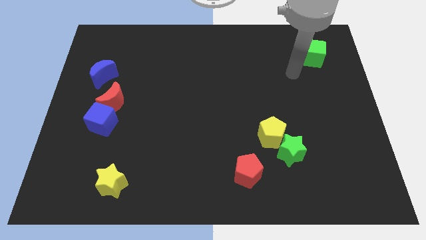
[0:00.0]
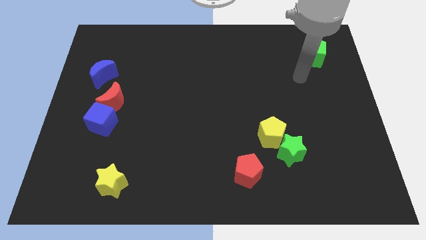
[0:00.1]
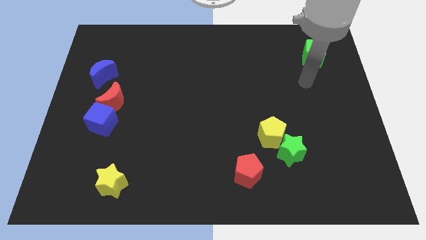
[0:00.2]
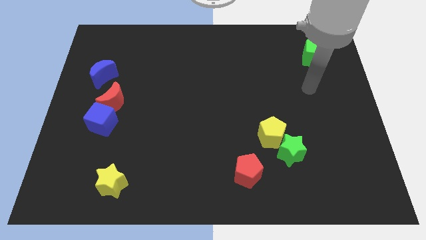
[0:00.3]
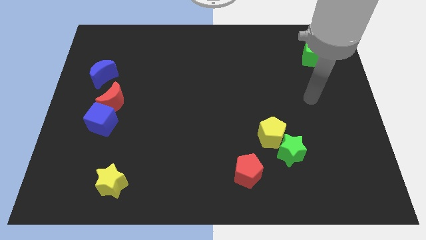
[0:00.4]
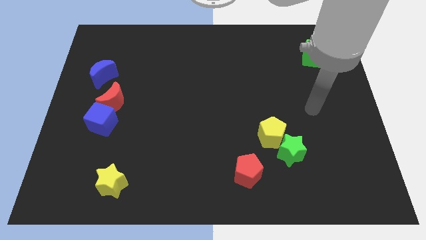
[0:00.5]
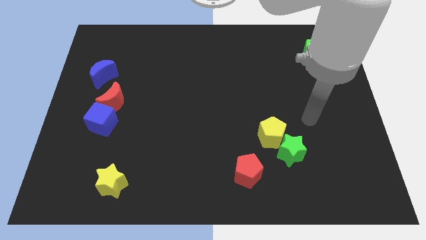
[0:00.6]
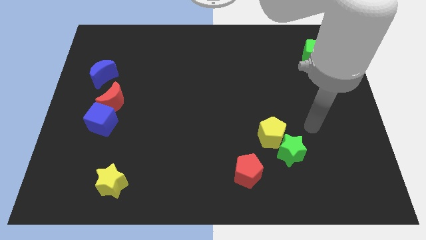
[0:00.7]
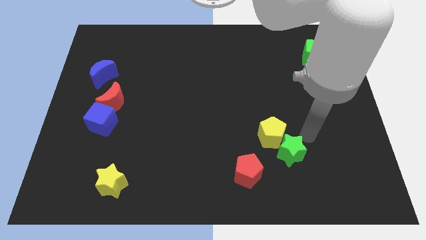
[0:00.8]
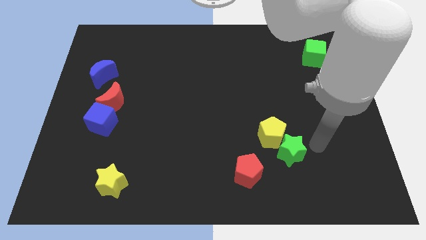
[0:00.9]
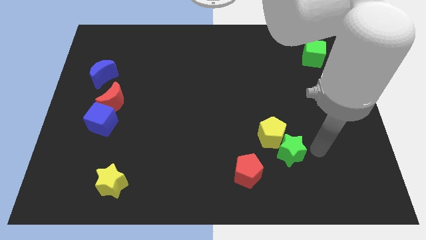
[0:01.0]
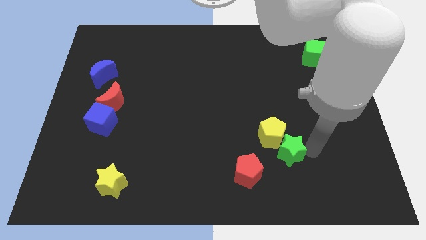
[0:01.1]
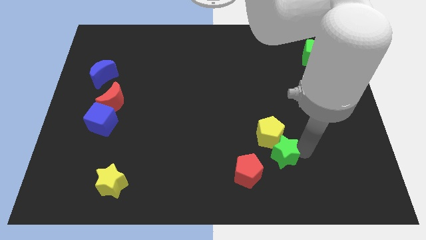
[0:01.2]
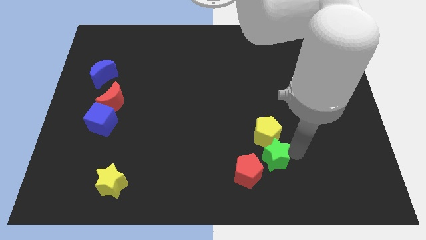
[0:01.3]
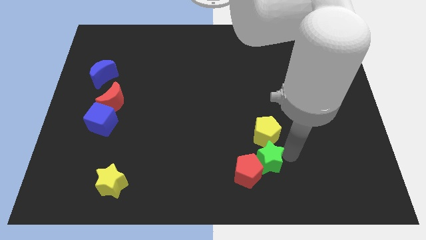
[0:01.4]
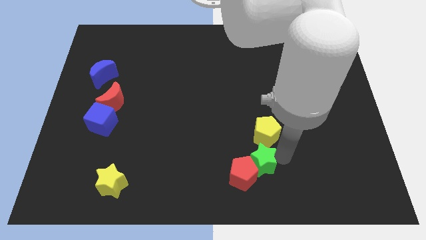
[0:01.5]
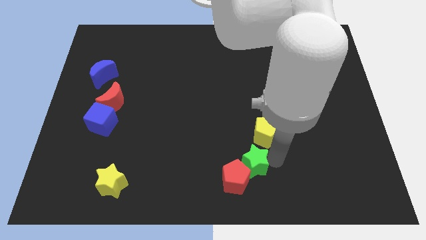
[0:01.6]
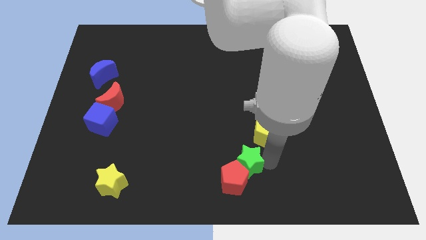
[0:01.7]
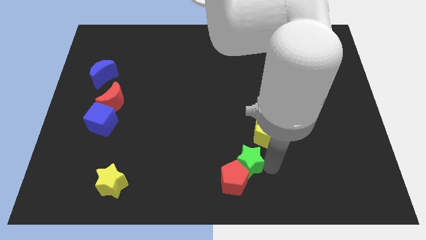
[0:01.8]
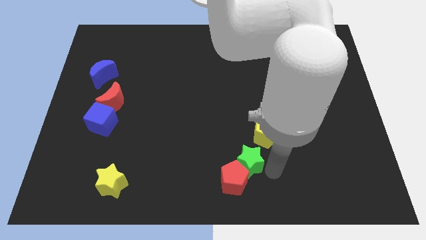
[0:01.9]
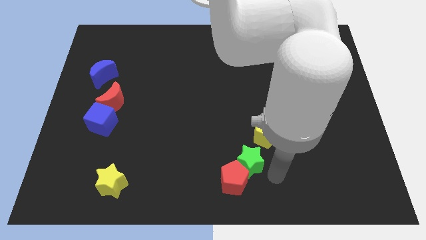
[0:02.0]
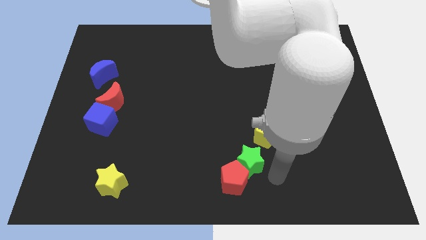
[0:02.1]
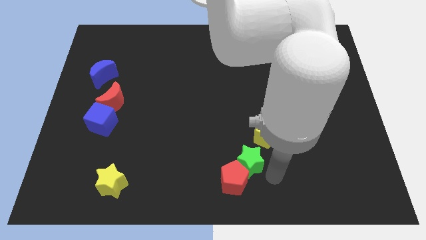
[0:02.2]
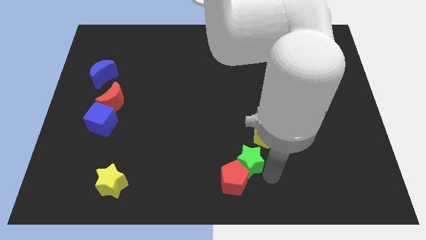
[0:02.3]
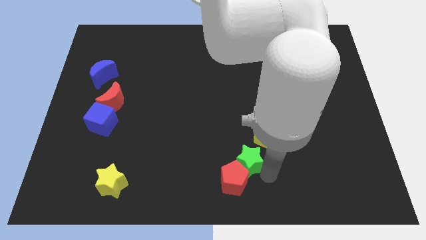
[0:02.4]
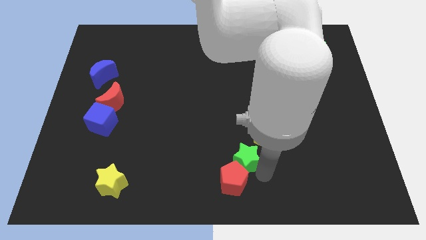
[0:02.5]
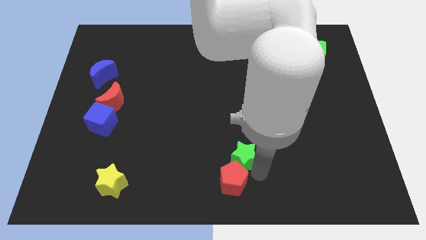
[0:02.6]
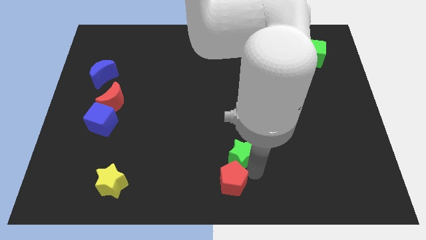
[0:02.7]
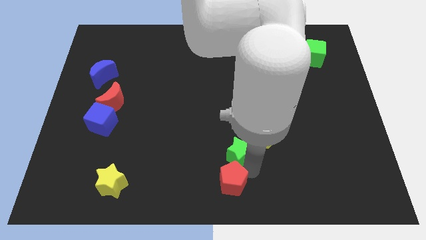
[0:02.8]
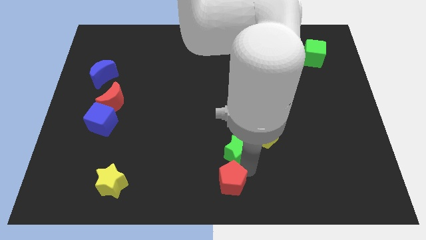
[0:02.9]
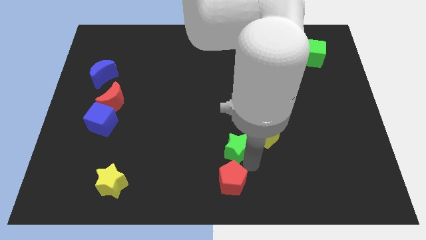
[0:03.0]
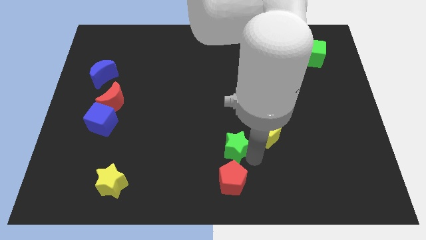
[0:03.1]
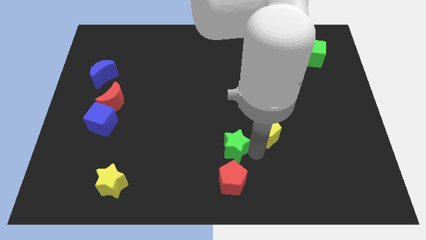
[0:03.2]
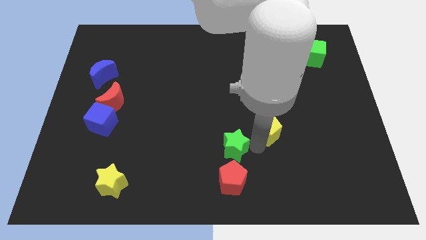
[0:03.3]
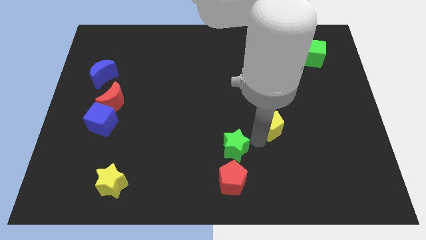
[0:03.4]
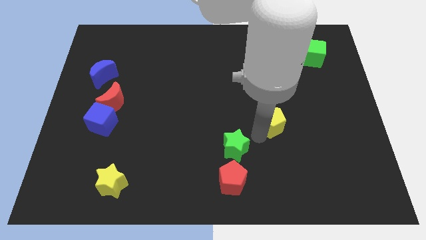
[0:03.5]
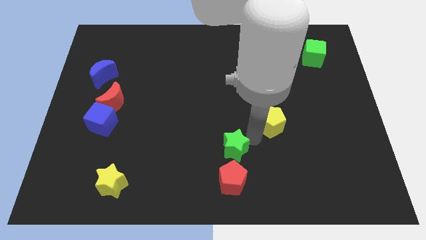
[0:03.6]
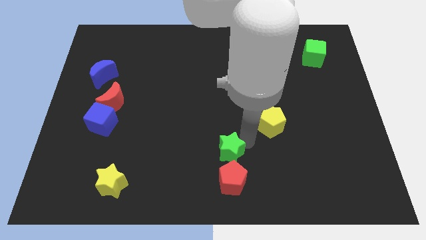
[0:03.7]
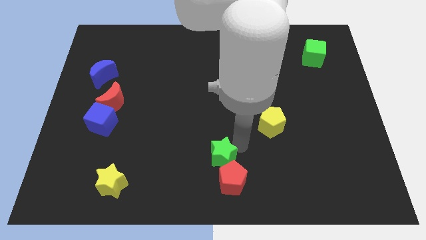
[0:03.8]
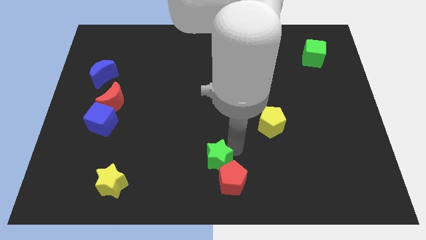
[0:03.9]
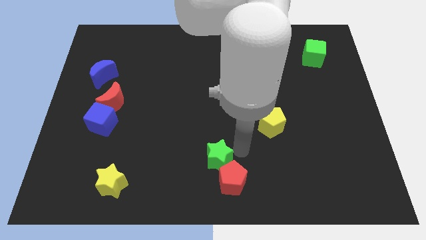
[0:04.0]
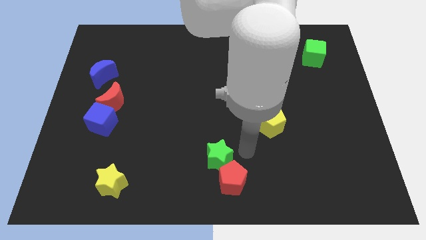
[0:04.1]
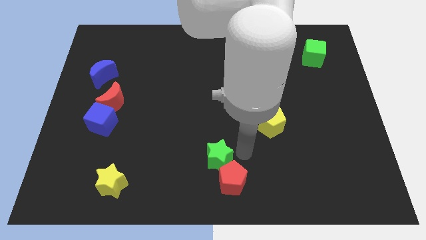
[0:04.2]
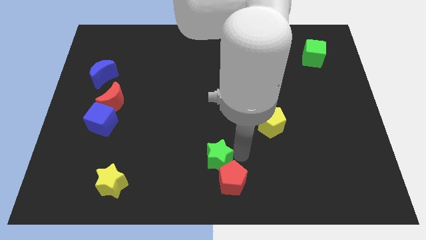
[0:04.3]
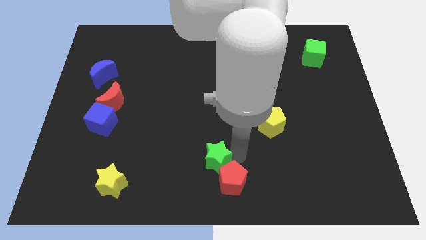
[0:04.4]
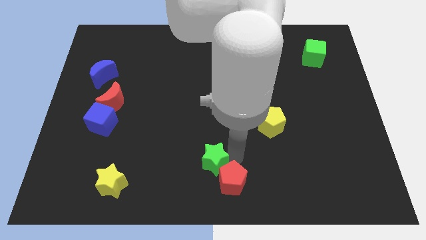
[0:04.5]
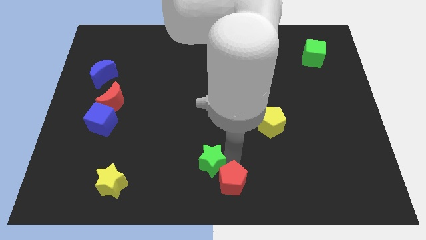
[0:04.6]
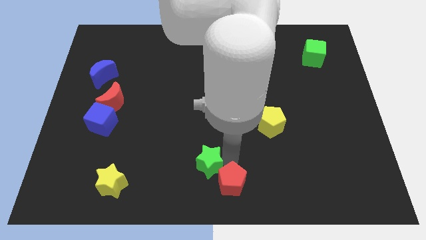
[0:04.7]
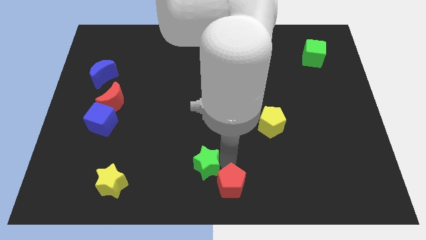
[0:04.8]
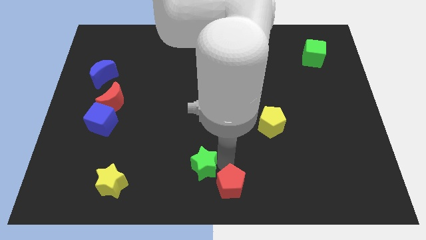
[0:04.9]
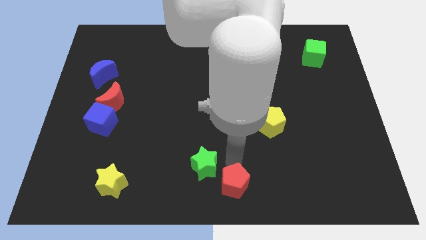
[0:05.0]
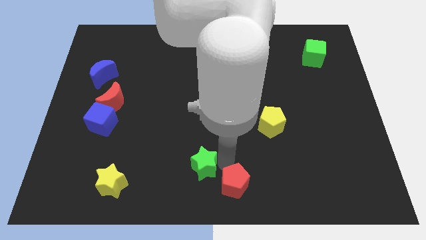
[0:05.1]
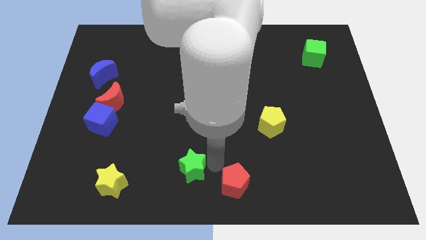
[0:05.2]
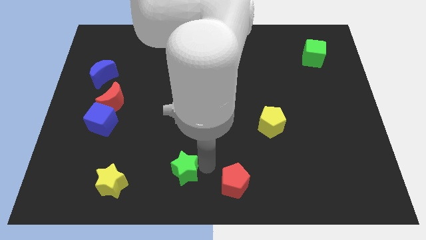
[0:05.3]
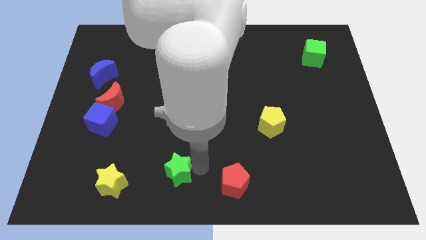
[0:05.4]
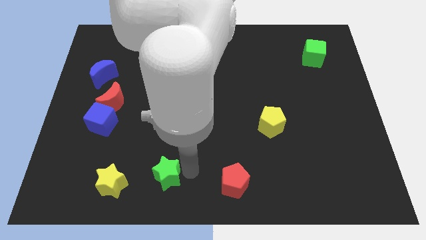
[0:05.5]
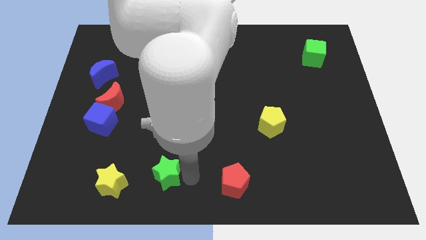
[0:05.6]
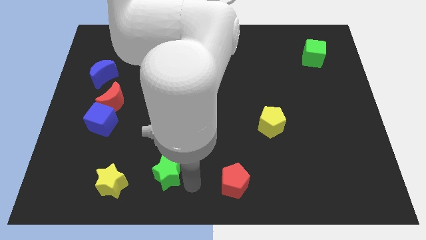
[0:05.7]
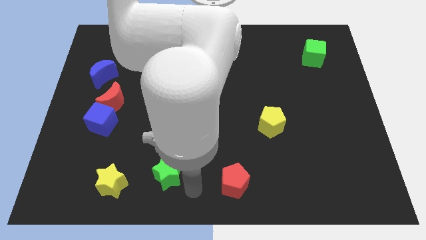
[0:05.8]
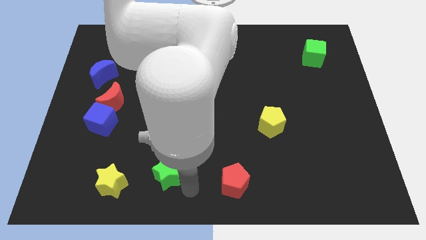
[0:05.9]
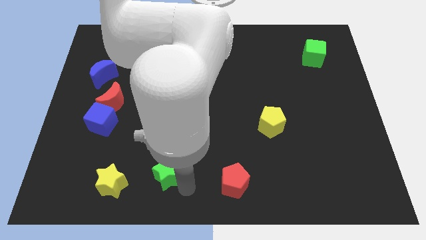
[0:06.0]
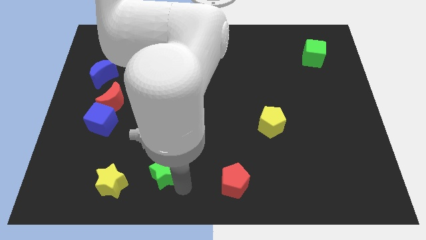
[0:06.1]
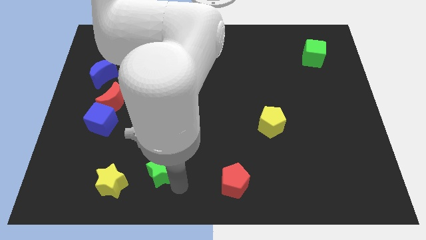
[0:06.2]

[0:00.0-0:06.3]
slide the green star to the top right of the yellow star

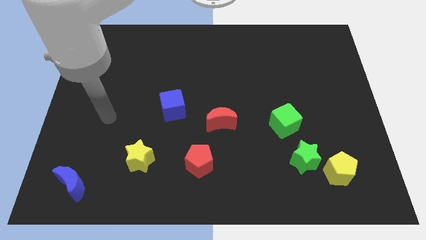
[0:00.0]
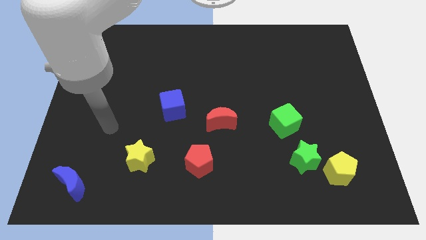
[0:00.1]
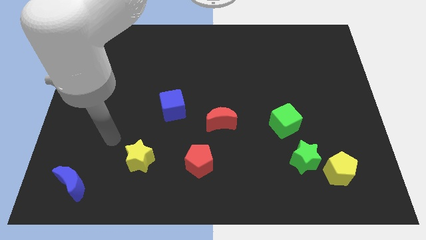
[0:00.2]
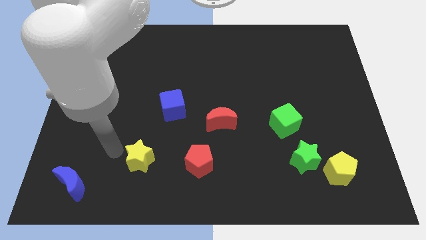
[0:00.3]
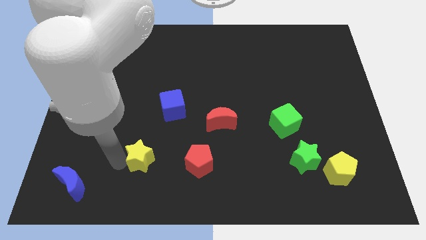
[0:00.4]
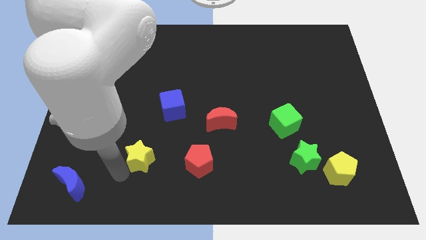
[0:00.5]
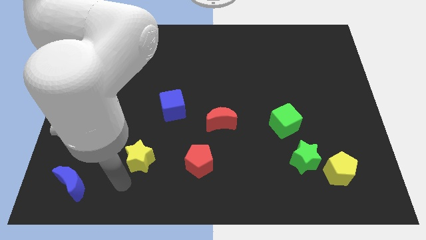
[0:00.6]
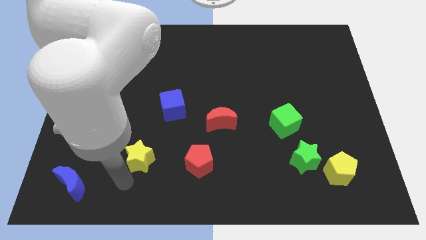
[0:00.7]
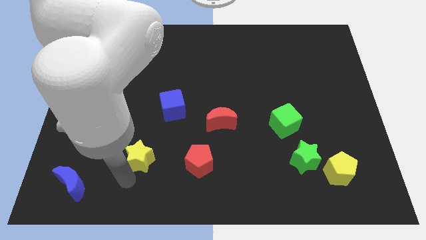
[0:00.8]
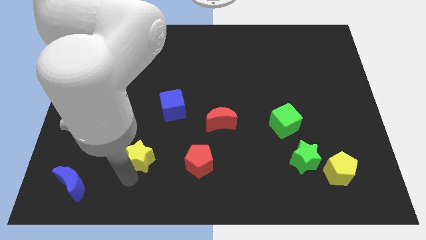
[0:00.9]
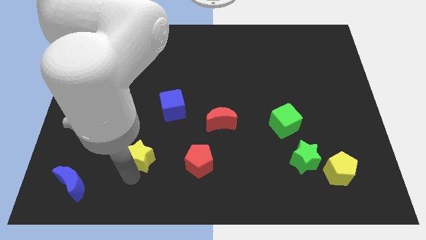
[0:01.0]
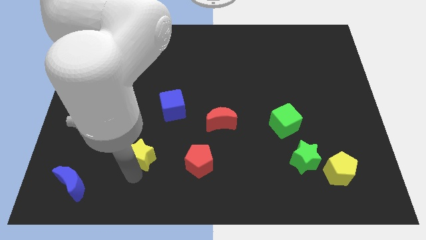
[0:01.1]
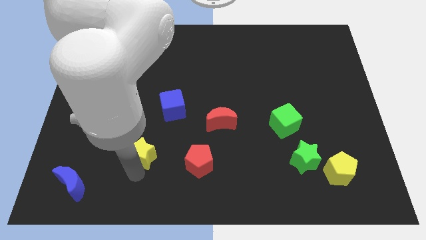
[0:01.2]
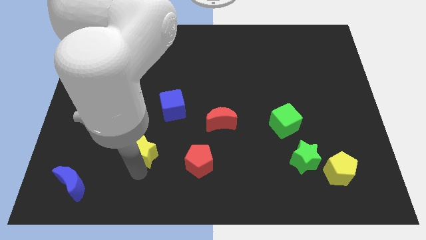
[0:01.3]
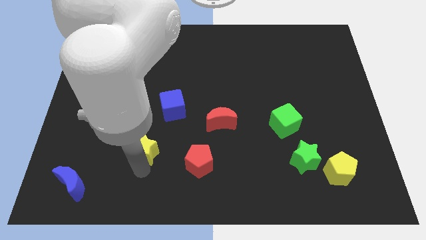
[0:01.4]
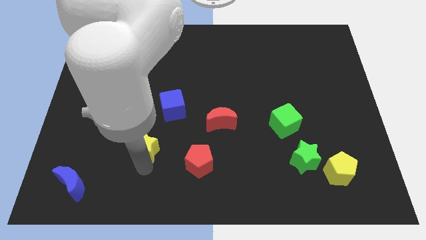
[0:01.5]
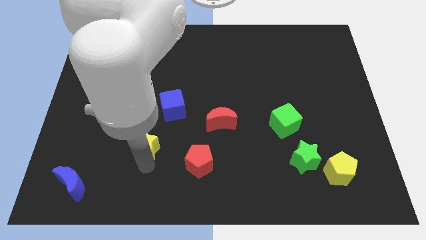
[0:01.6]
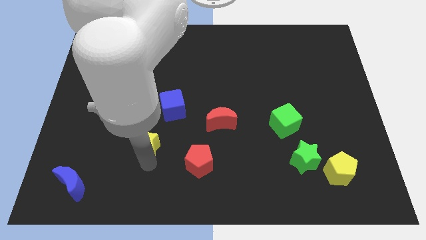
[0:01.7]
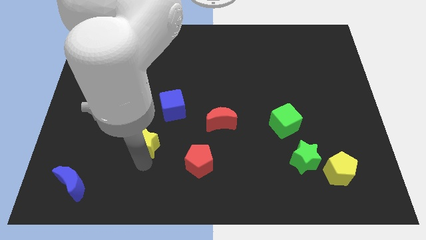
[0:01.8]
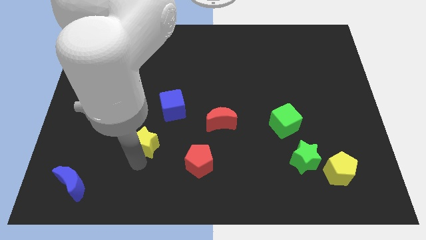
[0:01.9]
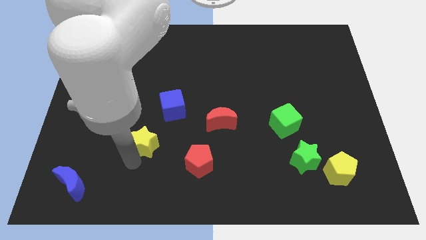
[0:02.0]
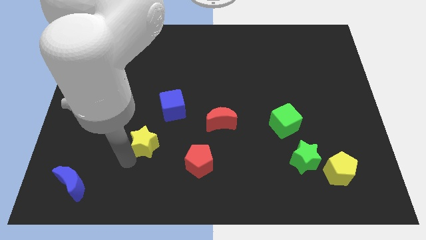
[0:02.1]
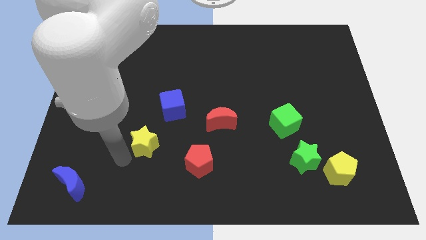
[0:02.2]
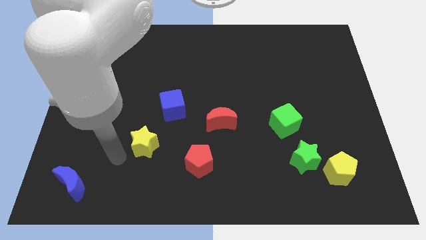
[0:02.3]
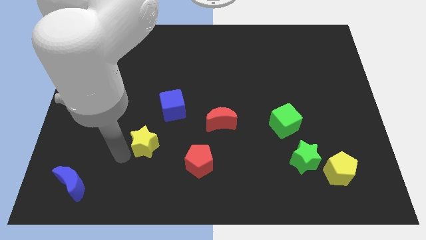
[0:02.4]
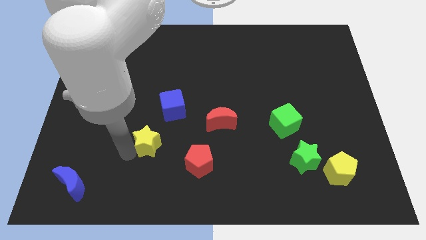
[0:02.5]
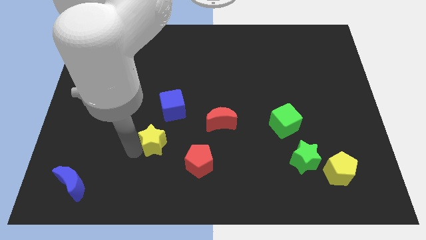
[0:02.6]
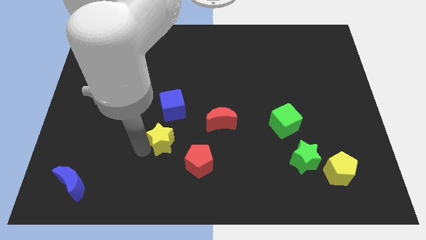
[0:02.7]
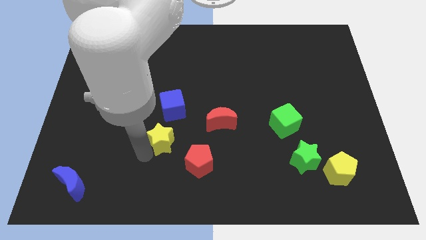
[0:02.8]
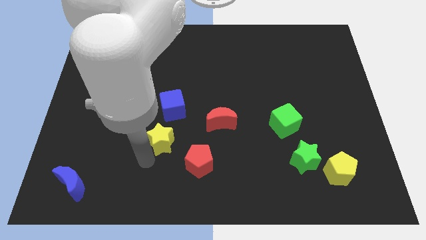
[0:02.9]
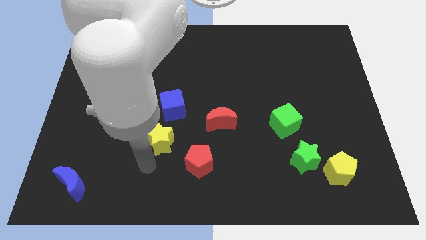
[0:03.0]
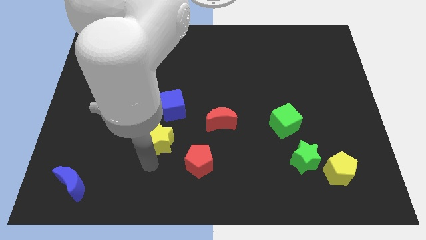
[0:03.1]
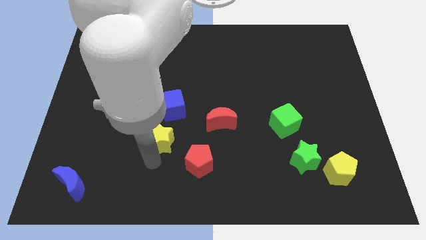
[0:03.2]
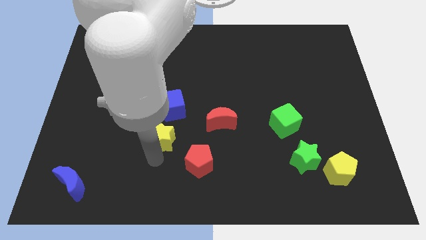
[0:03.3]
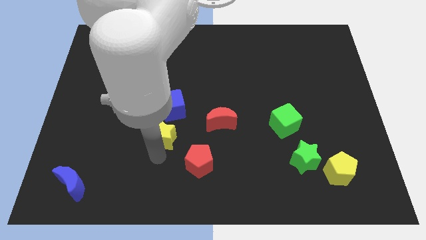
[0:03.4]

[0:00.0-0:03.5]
push the yellow star to the left side of the red moon
